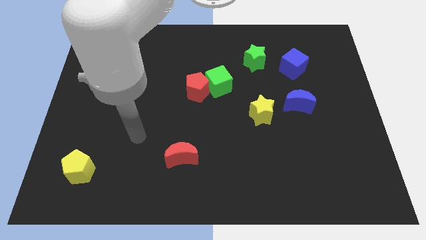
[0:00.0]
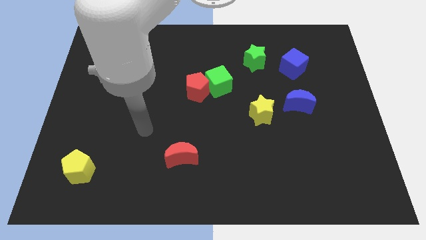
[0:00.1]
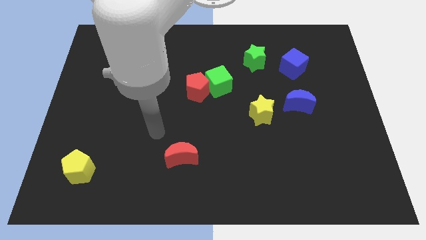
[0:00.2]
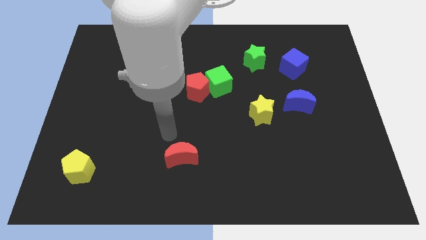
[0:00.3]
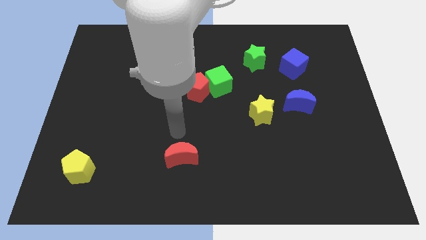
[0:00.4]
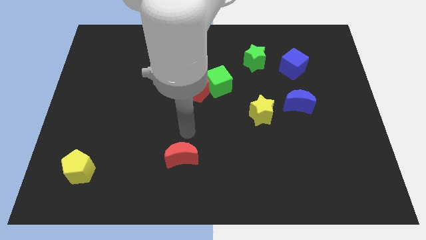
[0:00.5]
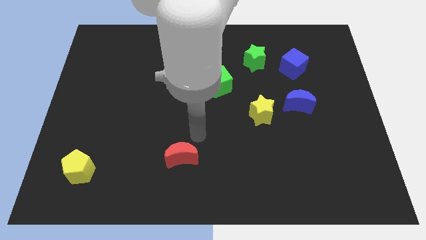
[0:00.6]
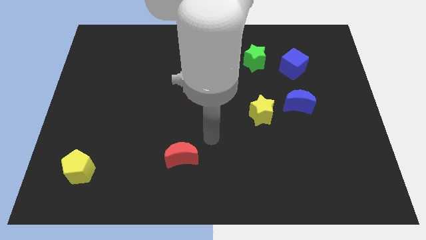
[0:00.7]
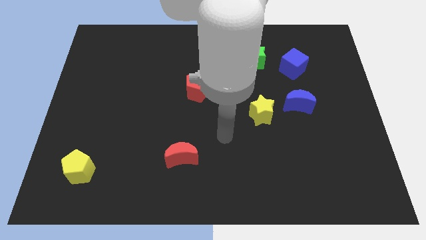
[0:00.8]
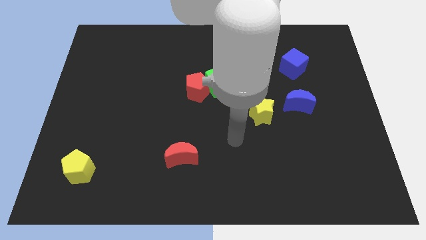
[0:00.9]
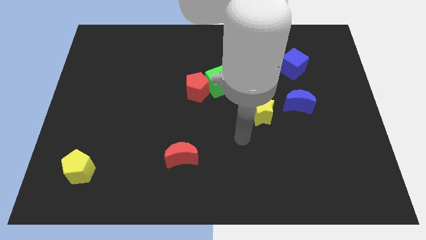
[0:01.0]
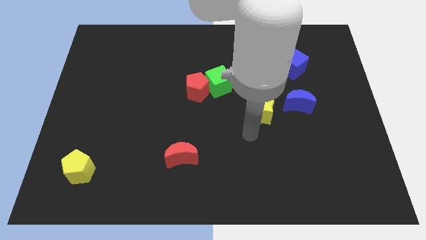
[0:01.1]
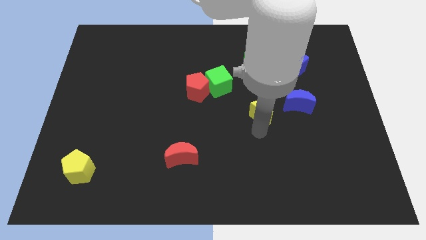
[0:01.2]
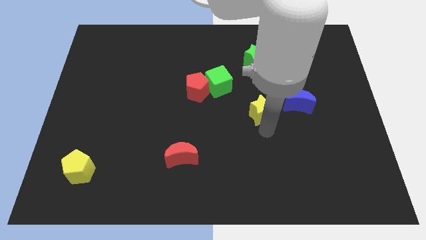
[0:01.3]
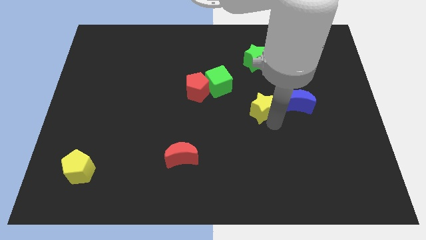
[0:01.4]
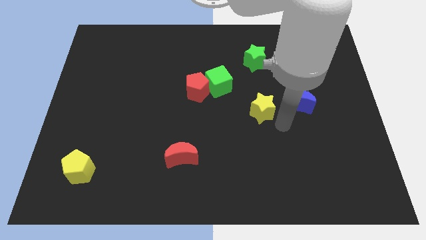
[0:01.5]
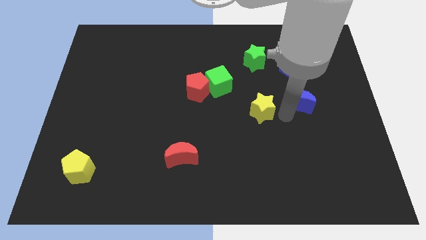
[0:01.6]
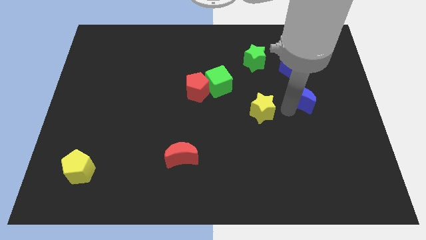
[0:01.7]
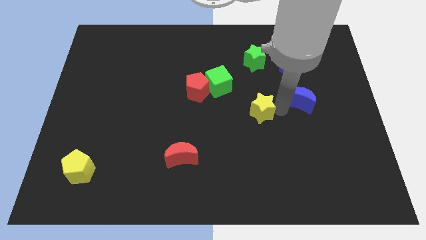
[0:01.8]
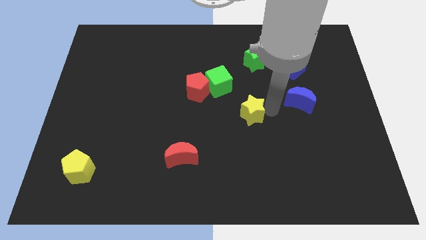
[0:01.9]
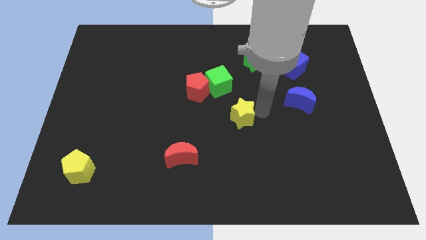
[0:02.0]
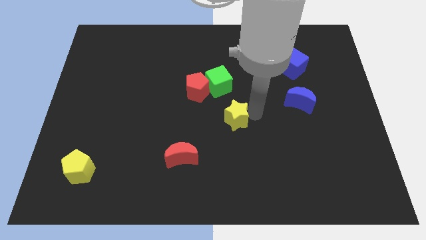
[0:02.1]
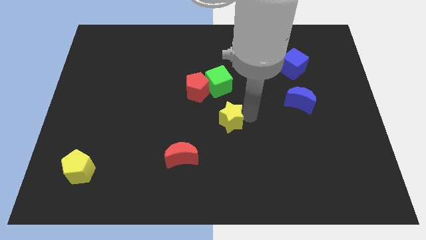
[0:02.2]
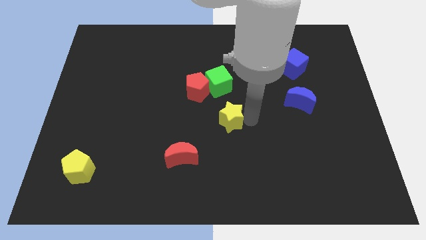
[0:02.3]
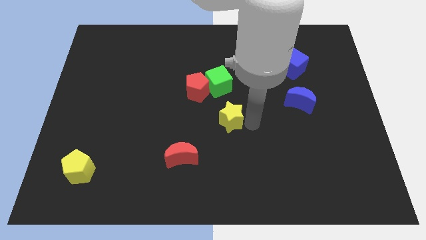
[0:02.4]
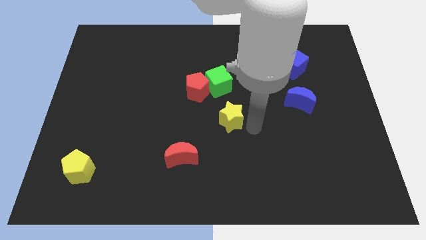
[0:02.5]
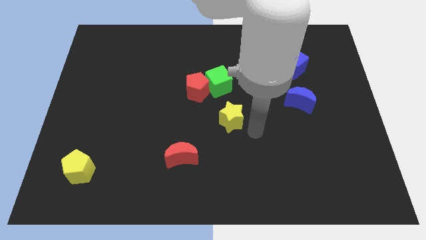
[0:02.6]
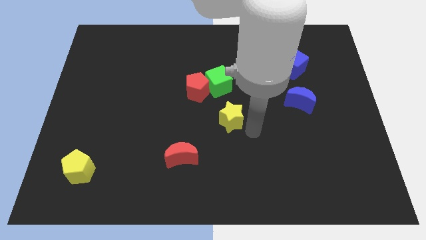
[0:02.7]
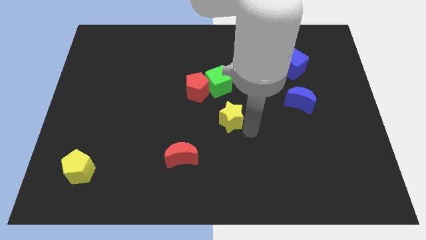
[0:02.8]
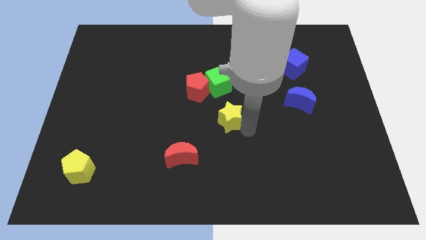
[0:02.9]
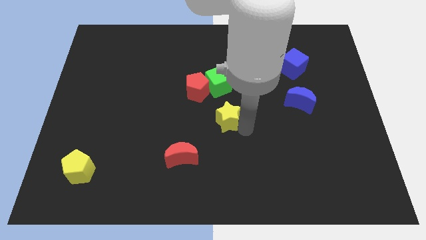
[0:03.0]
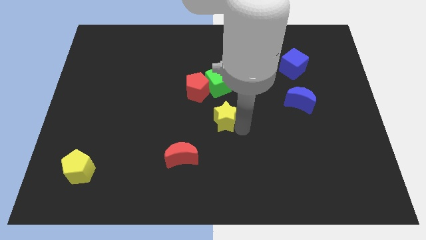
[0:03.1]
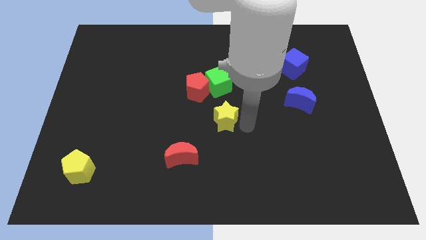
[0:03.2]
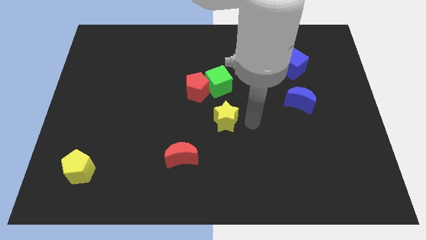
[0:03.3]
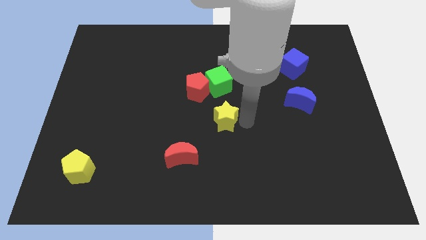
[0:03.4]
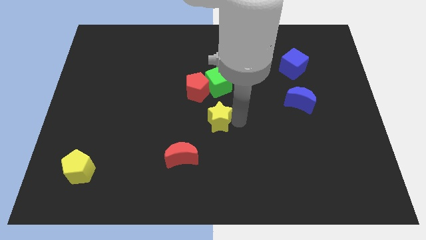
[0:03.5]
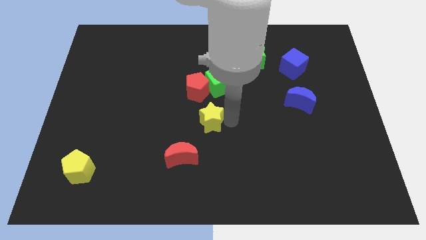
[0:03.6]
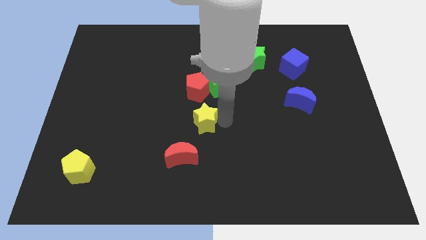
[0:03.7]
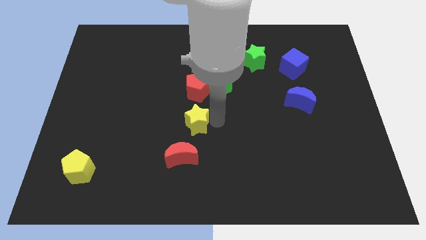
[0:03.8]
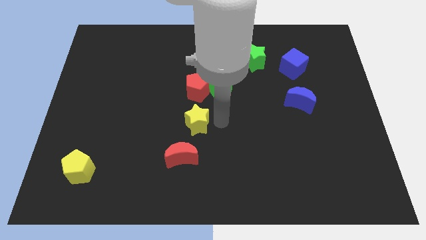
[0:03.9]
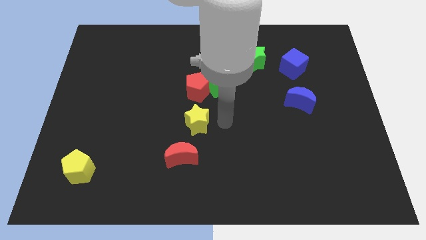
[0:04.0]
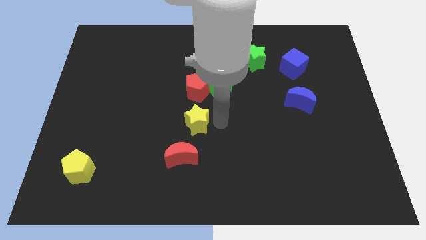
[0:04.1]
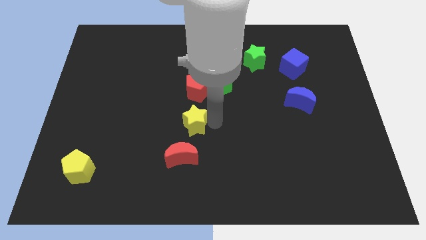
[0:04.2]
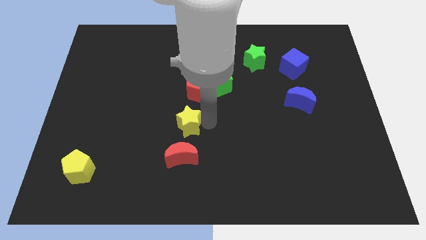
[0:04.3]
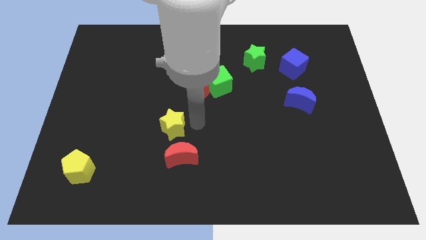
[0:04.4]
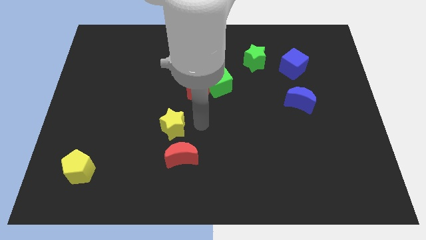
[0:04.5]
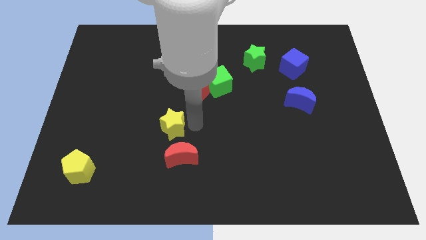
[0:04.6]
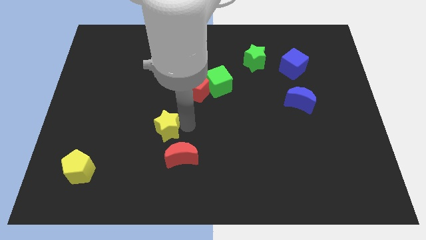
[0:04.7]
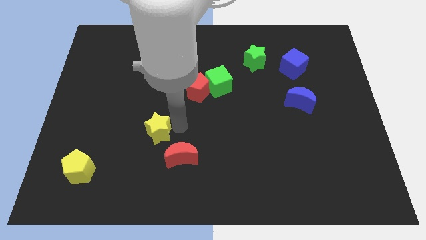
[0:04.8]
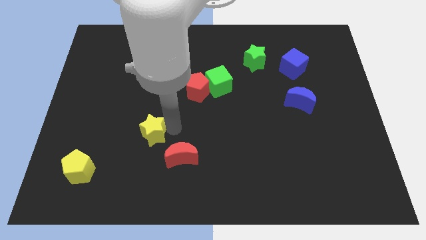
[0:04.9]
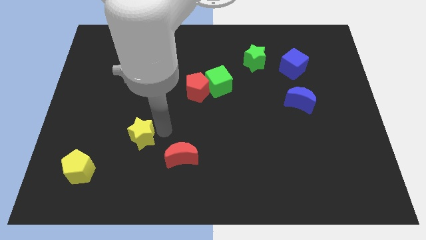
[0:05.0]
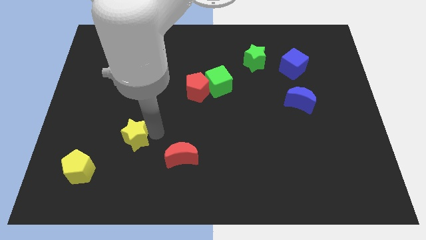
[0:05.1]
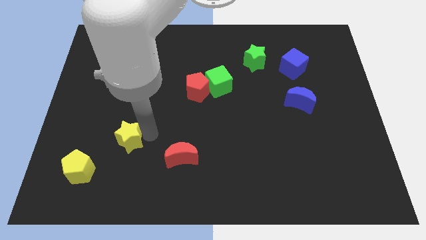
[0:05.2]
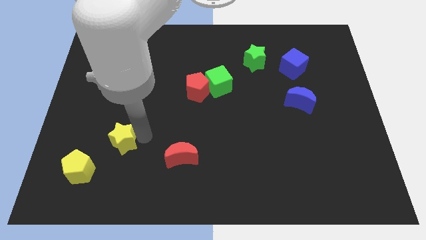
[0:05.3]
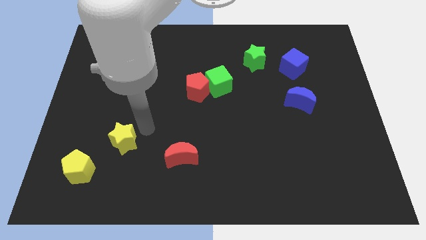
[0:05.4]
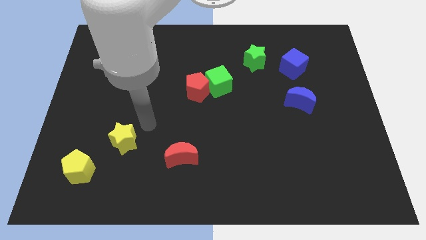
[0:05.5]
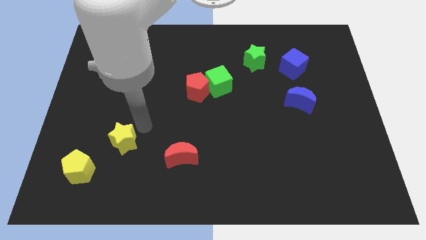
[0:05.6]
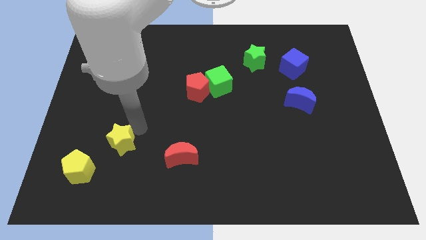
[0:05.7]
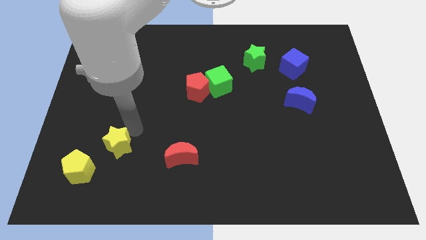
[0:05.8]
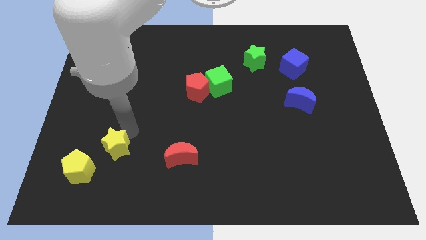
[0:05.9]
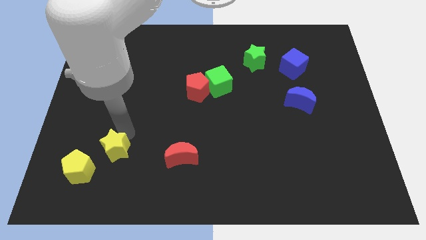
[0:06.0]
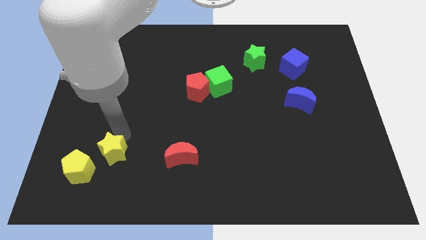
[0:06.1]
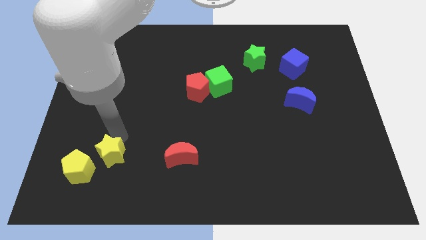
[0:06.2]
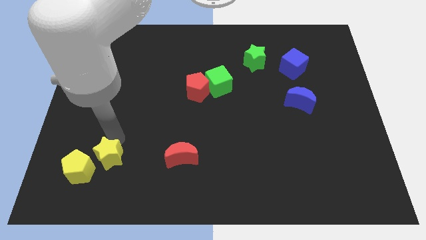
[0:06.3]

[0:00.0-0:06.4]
slide the yellow star next to the yellow pentagon
